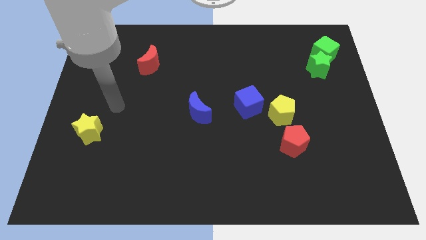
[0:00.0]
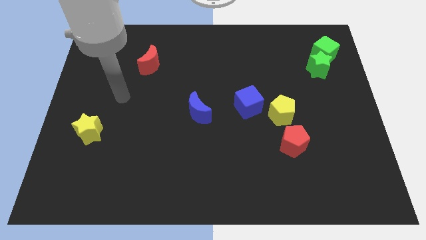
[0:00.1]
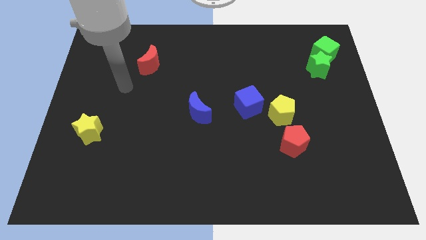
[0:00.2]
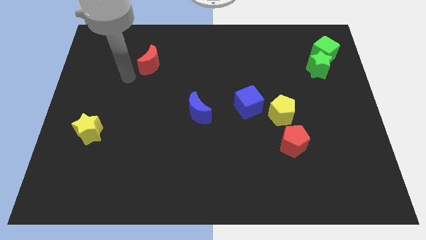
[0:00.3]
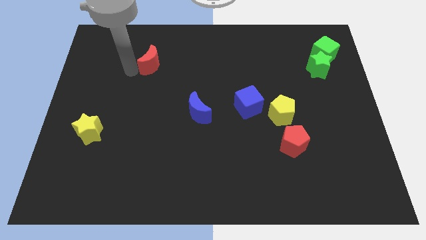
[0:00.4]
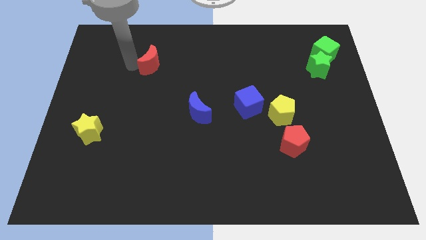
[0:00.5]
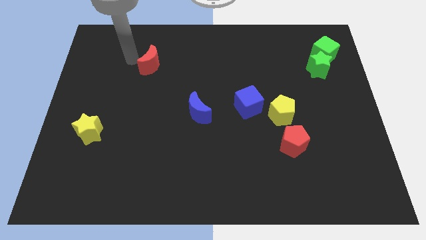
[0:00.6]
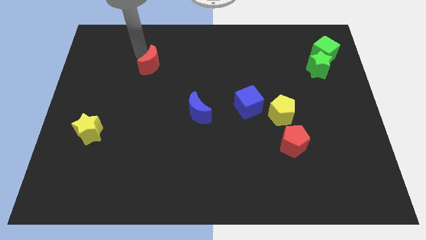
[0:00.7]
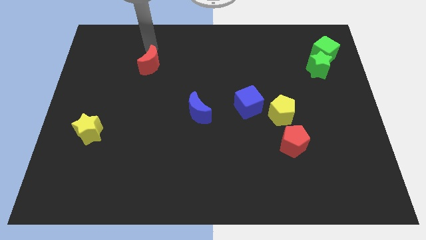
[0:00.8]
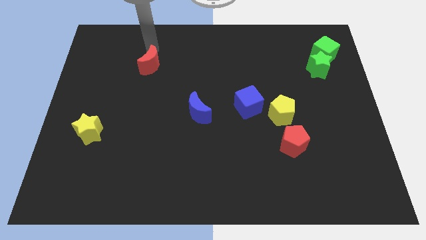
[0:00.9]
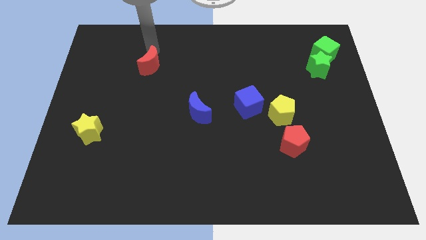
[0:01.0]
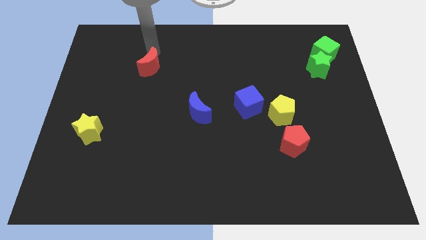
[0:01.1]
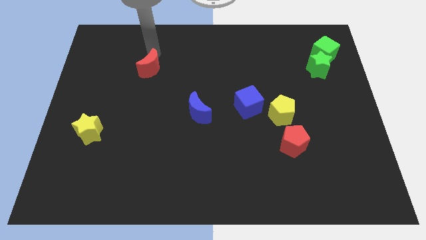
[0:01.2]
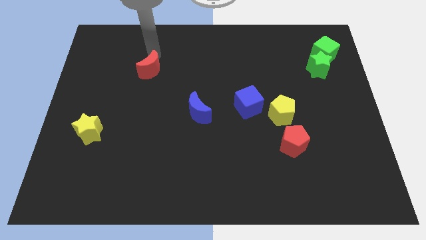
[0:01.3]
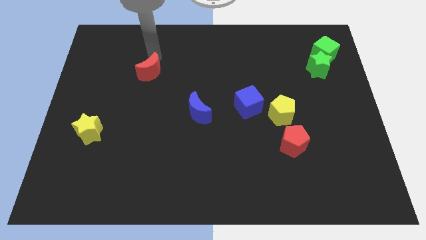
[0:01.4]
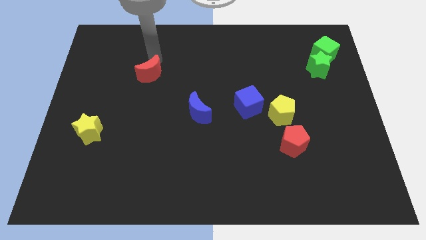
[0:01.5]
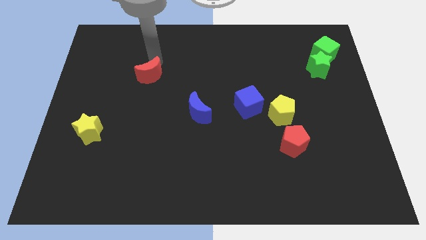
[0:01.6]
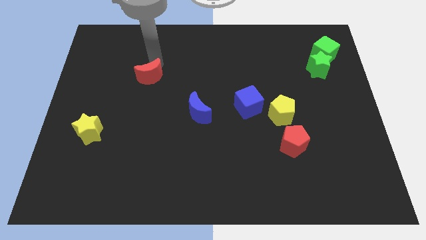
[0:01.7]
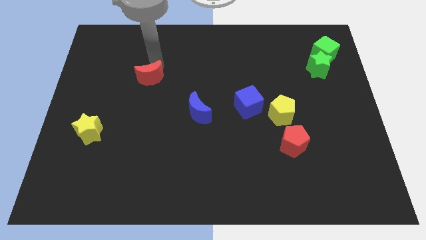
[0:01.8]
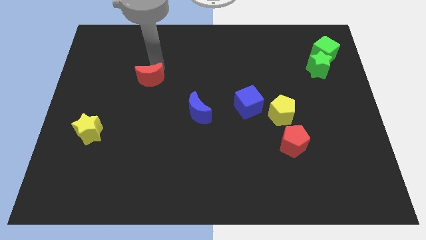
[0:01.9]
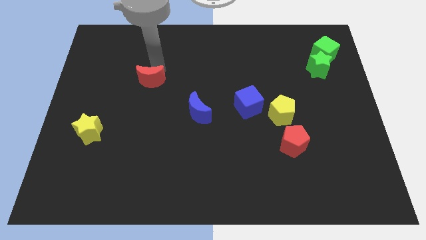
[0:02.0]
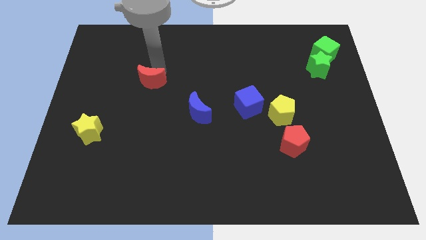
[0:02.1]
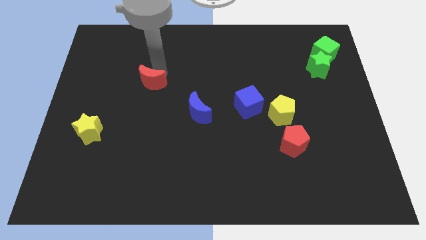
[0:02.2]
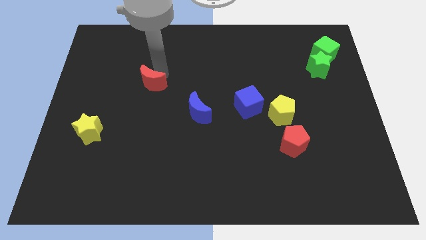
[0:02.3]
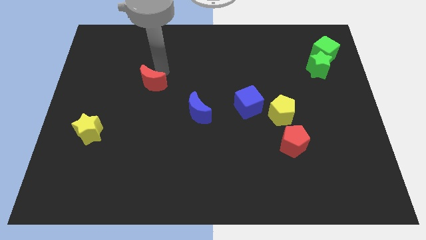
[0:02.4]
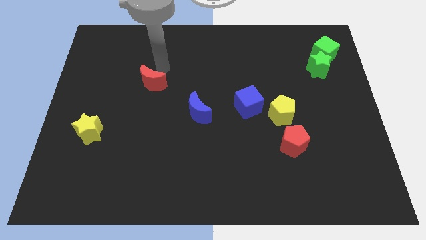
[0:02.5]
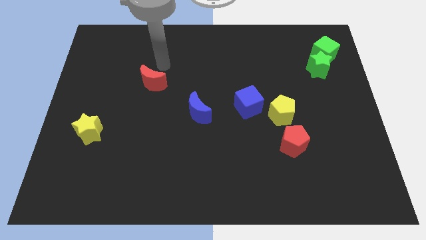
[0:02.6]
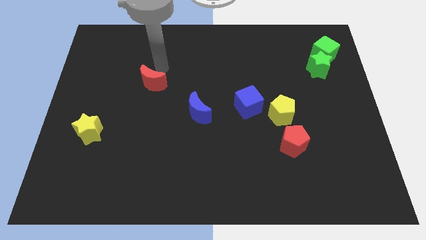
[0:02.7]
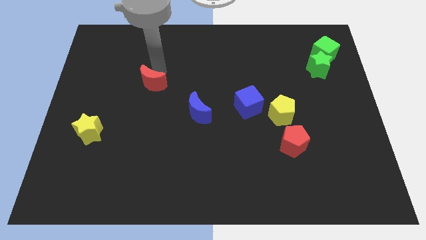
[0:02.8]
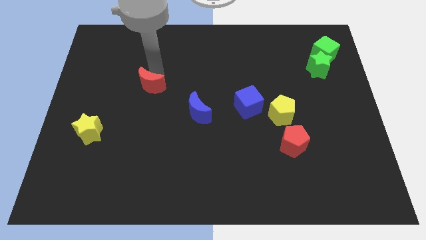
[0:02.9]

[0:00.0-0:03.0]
push the red moon downwards a bit

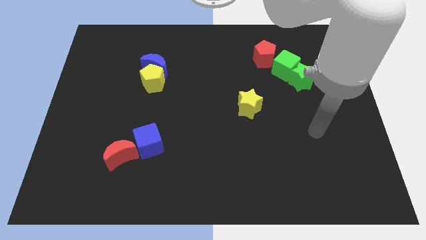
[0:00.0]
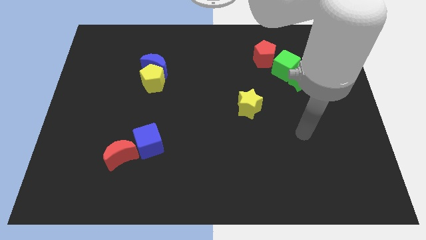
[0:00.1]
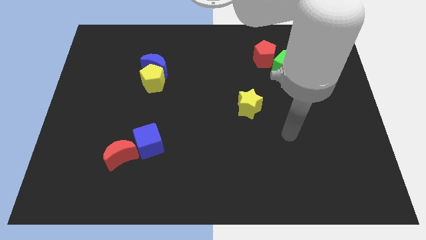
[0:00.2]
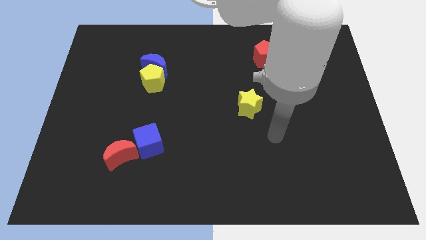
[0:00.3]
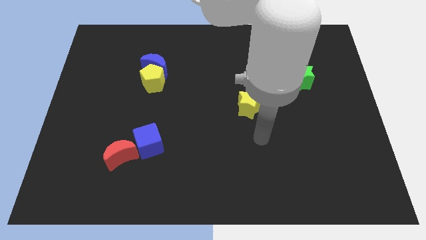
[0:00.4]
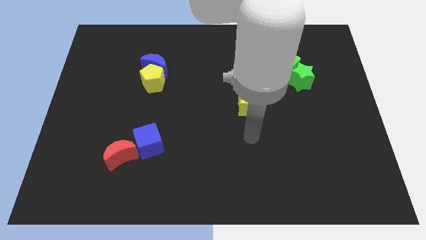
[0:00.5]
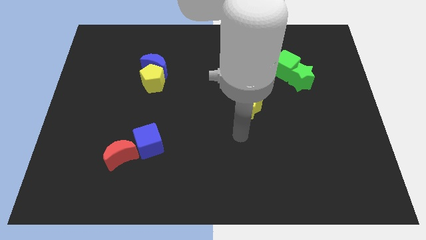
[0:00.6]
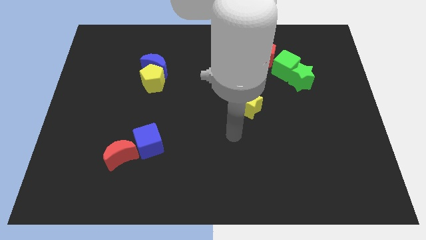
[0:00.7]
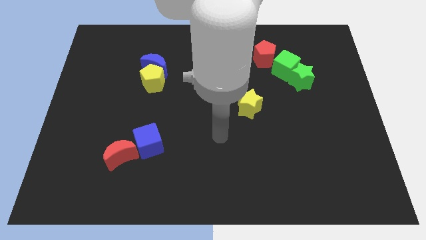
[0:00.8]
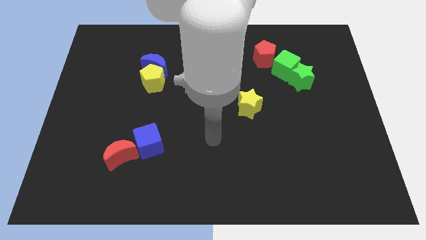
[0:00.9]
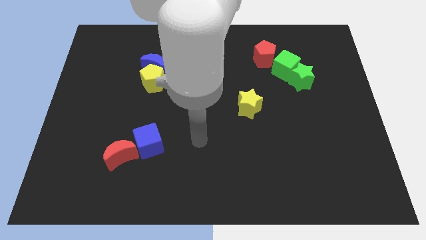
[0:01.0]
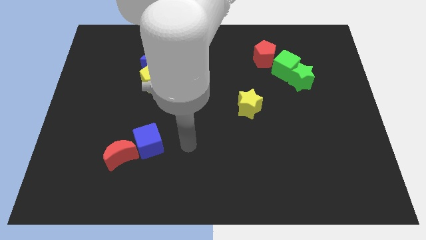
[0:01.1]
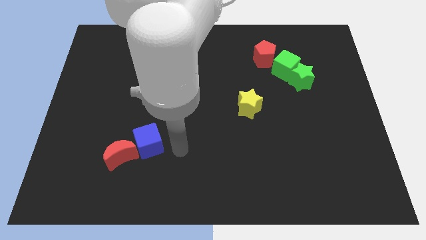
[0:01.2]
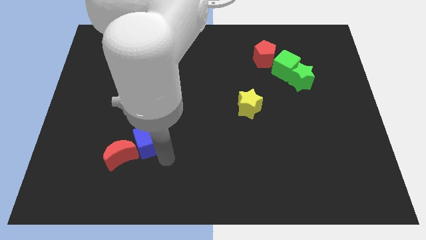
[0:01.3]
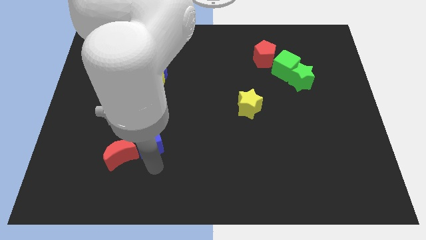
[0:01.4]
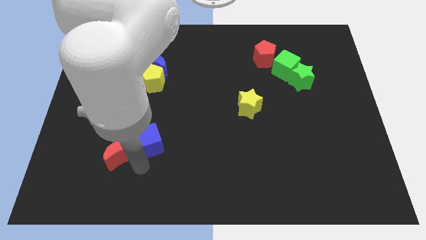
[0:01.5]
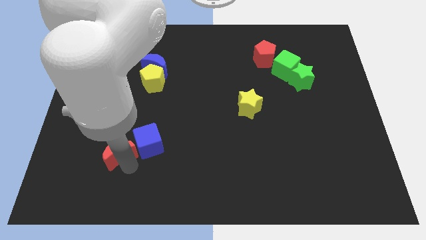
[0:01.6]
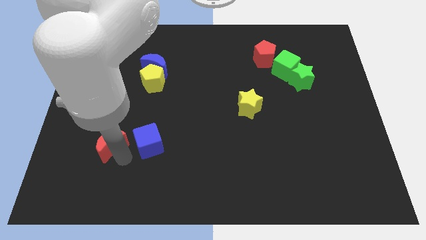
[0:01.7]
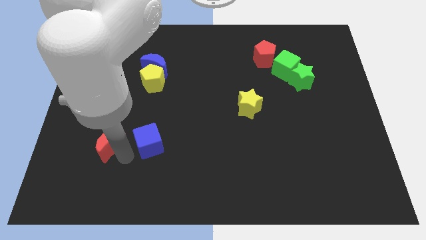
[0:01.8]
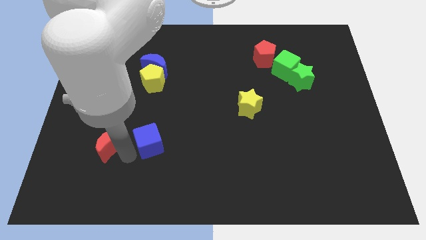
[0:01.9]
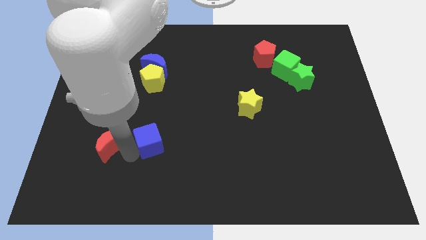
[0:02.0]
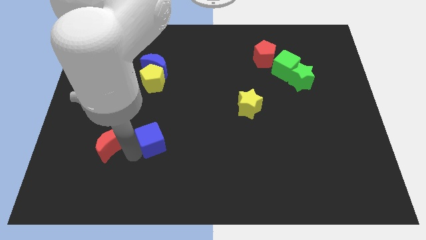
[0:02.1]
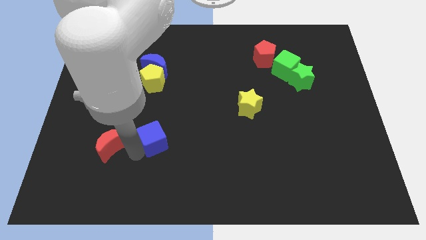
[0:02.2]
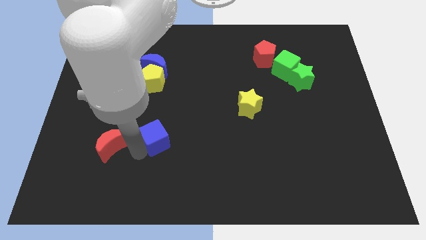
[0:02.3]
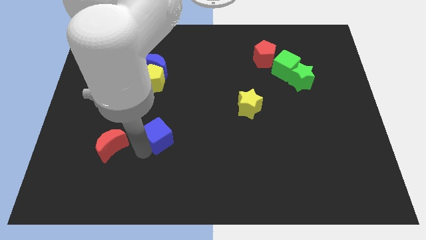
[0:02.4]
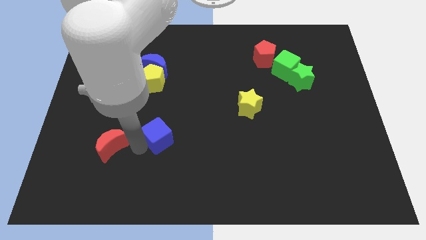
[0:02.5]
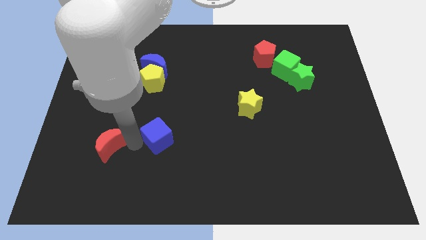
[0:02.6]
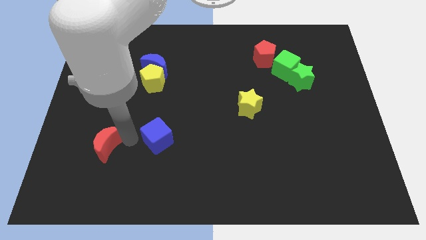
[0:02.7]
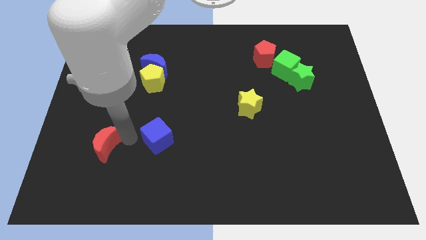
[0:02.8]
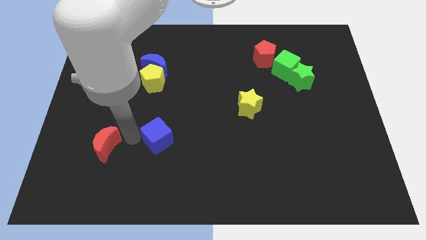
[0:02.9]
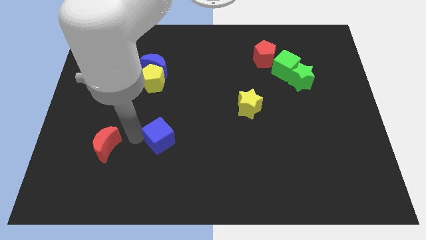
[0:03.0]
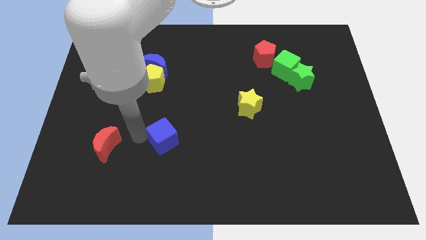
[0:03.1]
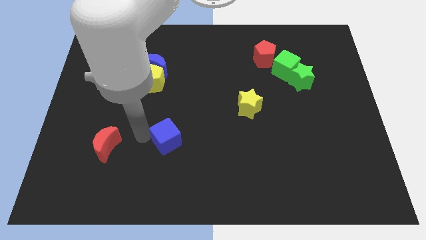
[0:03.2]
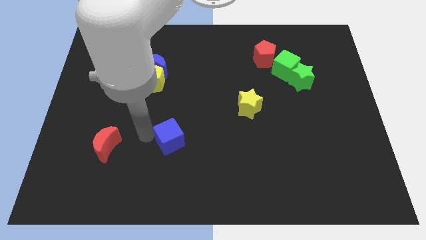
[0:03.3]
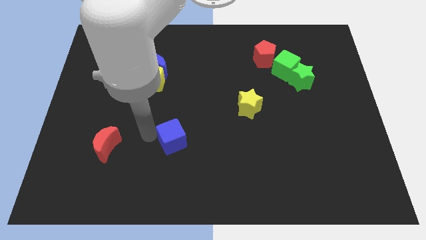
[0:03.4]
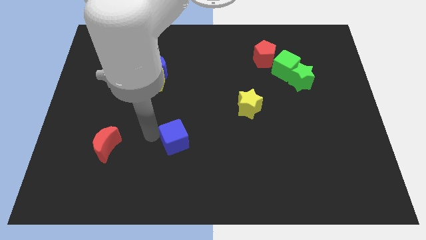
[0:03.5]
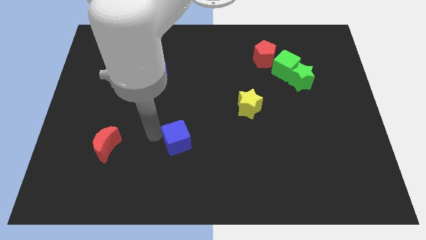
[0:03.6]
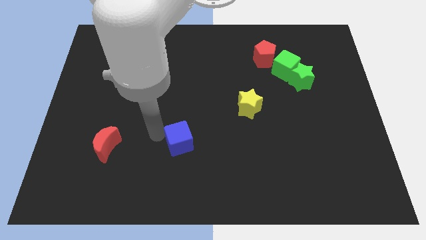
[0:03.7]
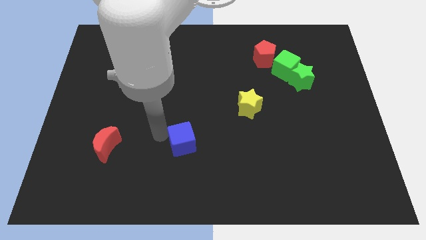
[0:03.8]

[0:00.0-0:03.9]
slide the blue cube to the right somewhat

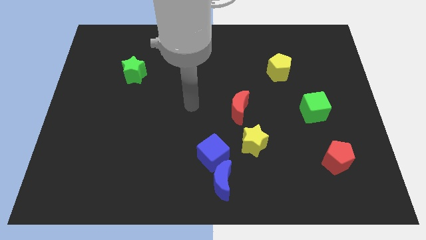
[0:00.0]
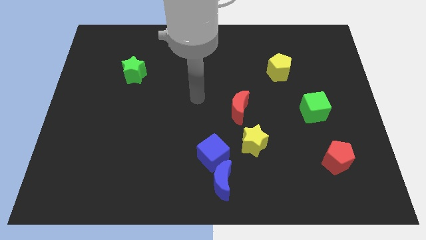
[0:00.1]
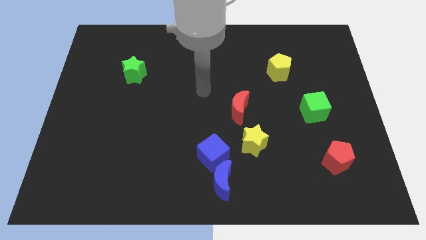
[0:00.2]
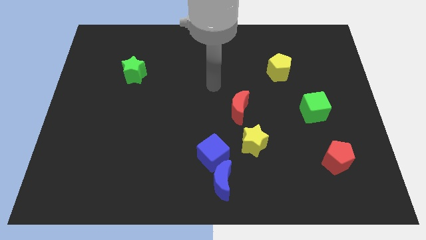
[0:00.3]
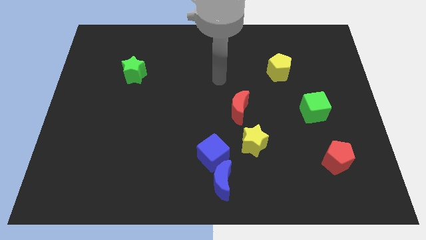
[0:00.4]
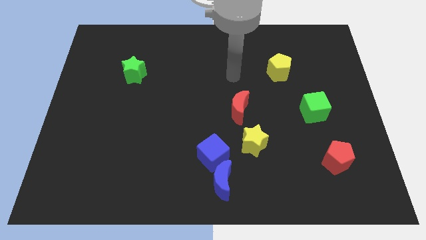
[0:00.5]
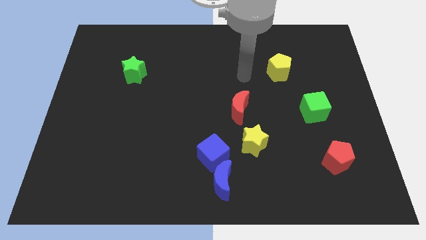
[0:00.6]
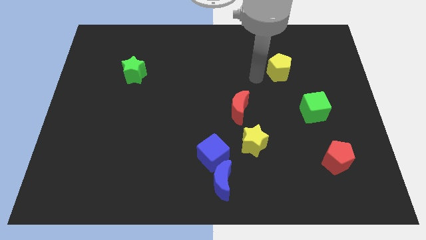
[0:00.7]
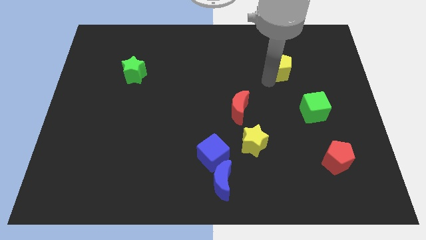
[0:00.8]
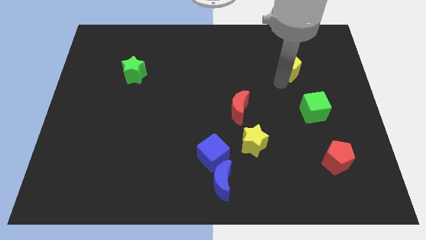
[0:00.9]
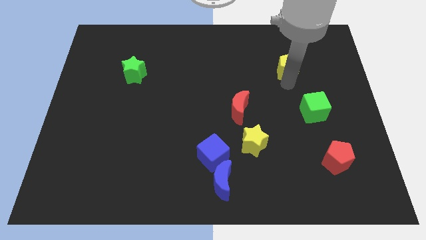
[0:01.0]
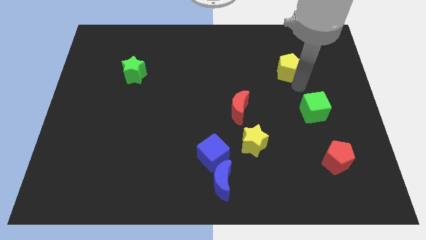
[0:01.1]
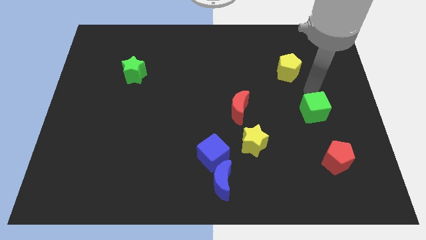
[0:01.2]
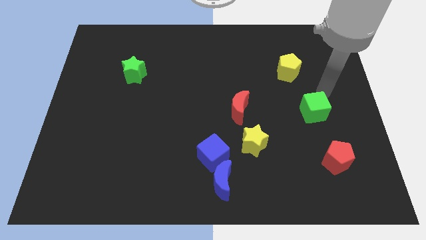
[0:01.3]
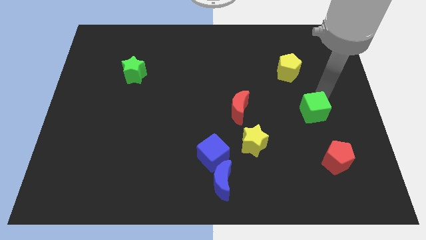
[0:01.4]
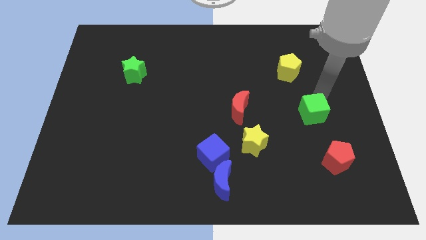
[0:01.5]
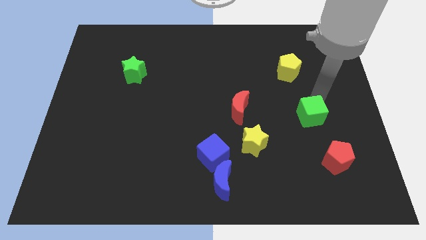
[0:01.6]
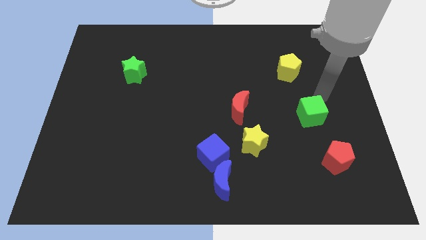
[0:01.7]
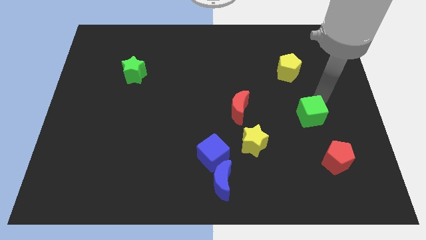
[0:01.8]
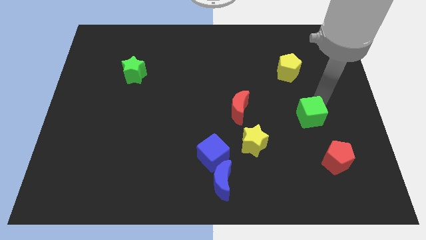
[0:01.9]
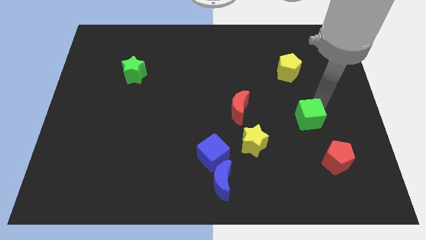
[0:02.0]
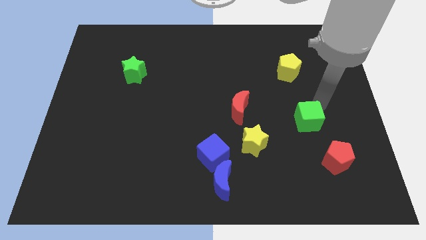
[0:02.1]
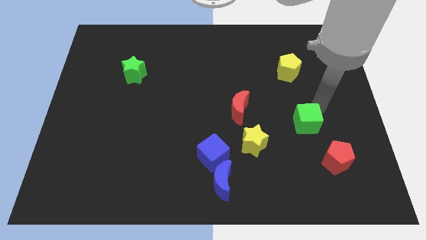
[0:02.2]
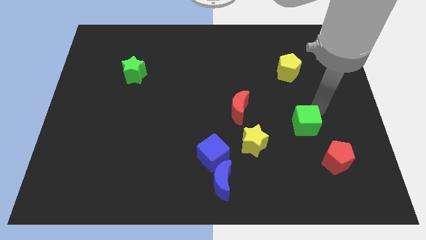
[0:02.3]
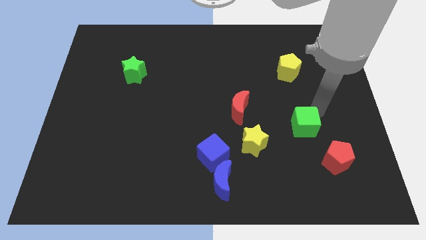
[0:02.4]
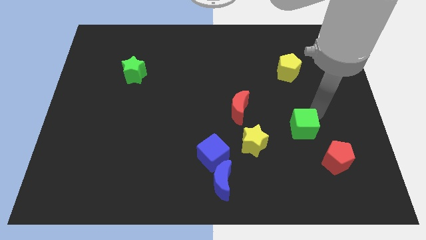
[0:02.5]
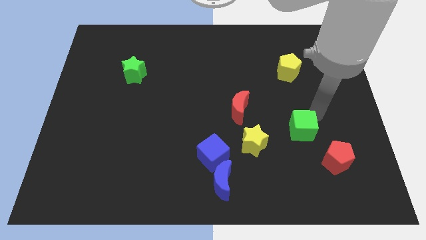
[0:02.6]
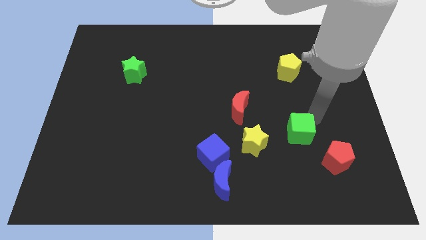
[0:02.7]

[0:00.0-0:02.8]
slightly push the green cube down and left
